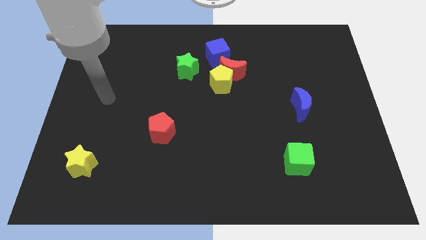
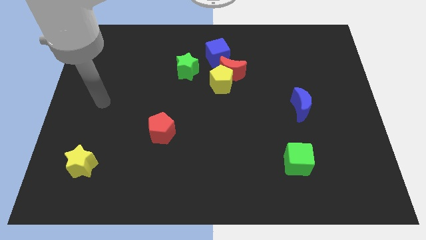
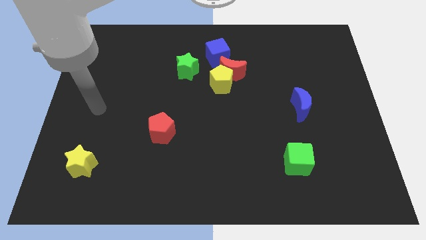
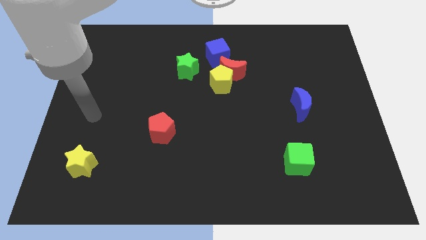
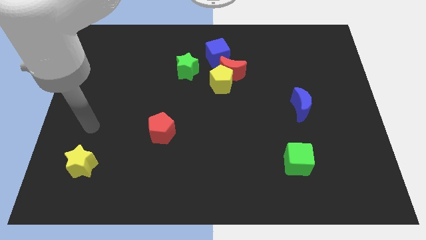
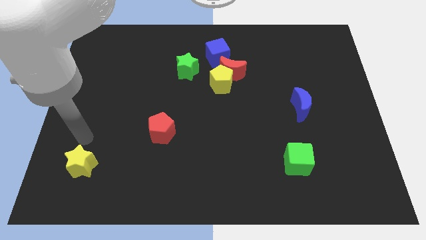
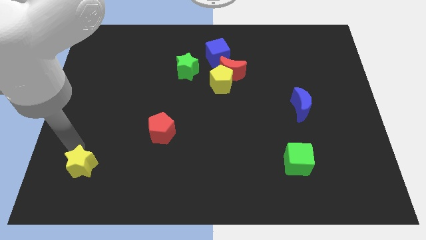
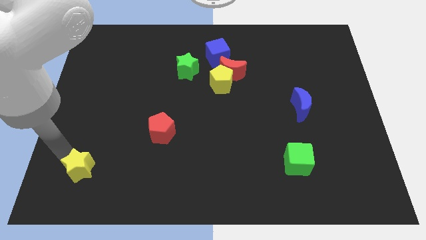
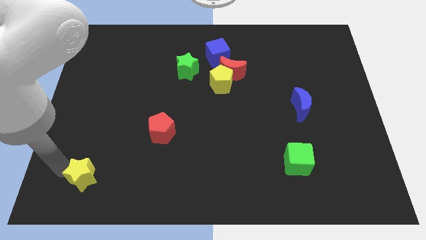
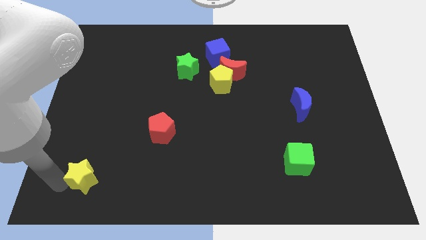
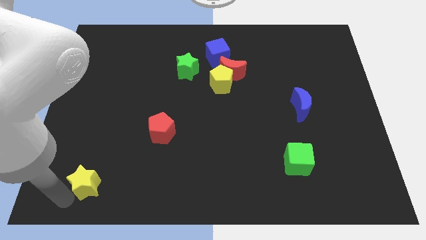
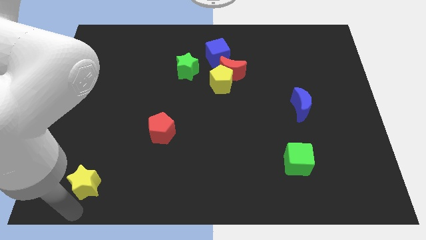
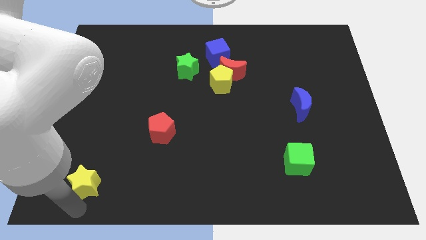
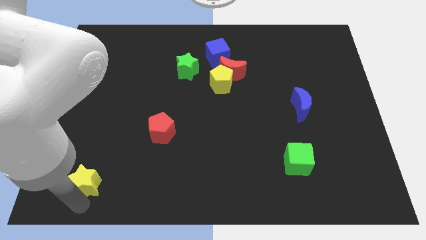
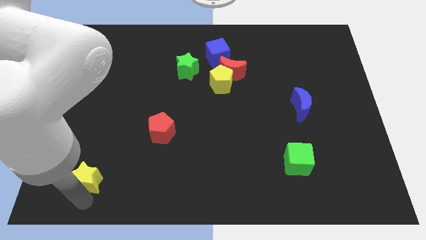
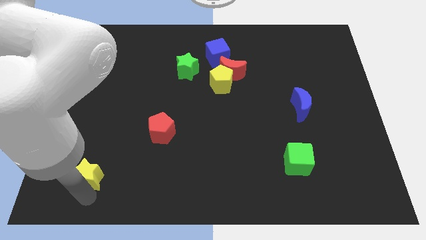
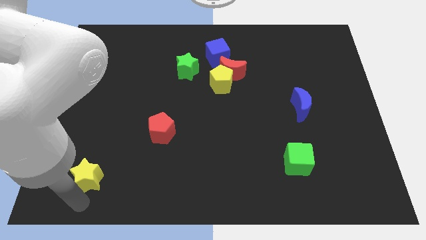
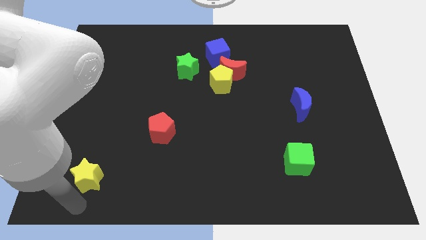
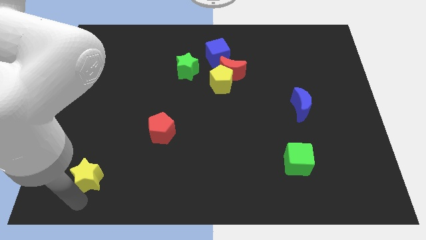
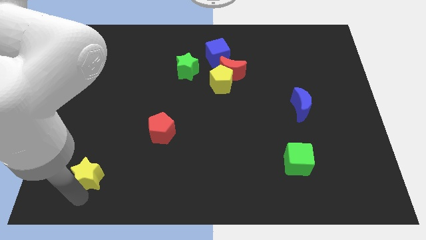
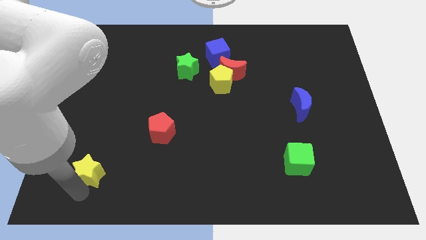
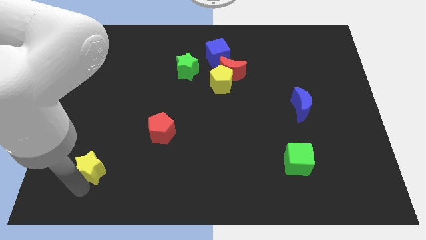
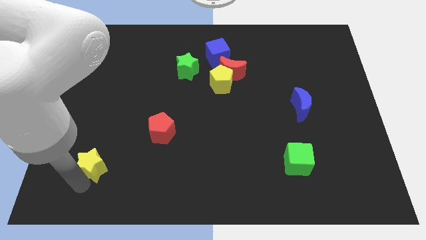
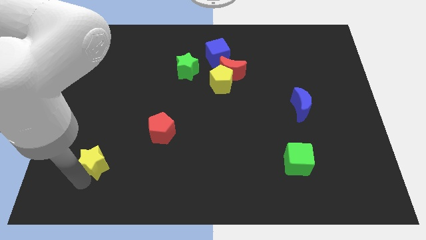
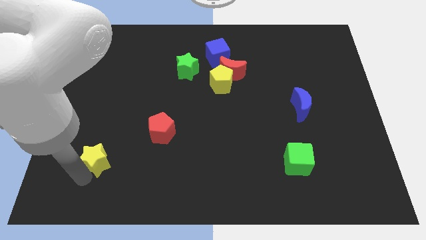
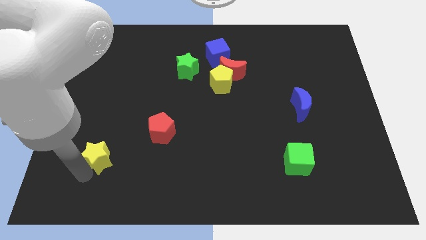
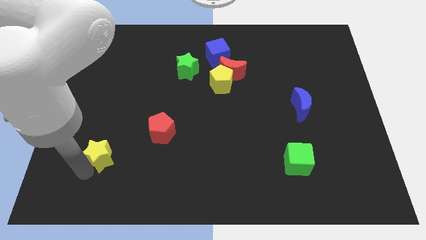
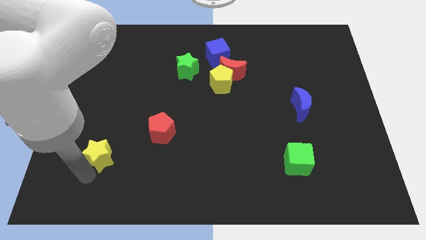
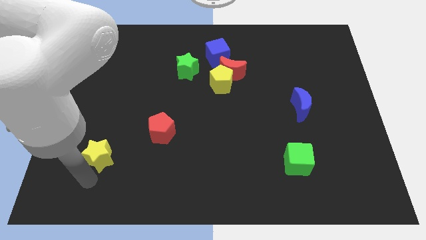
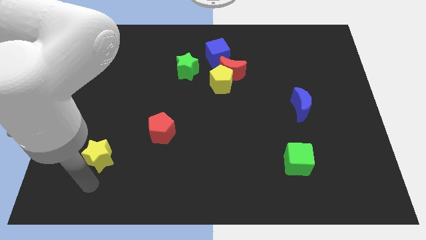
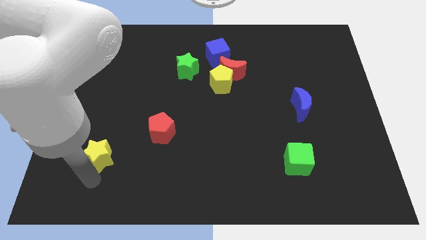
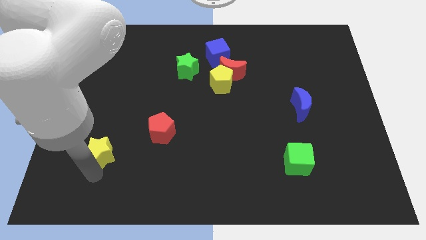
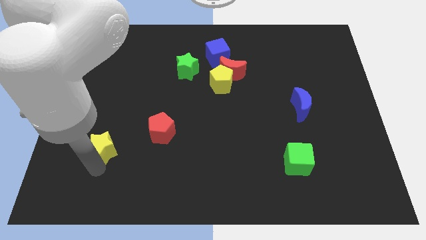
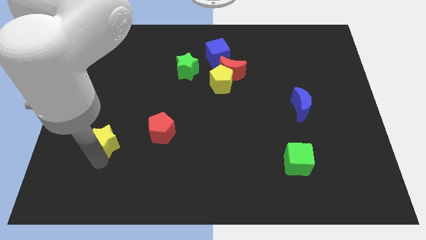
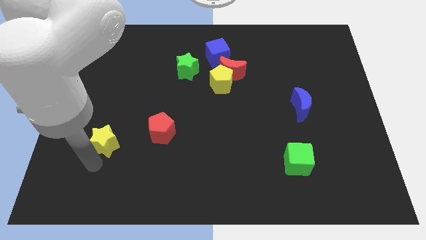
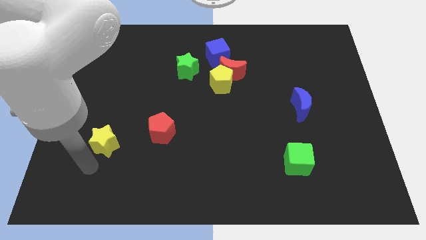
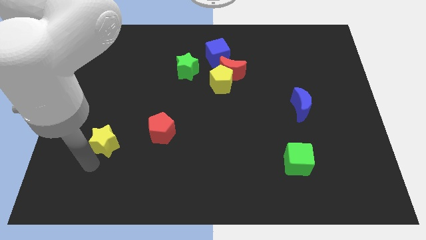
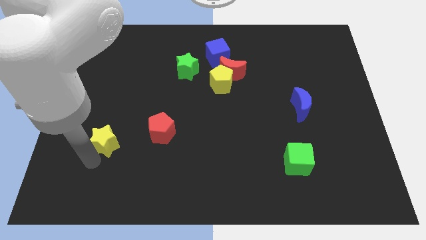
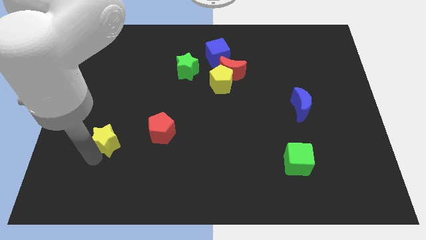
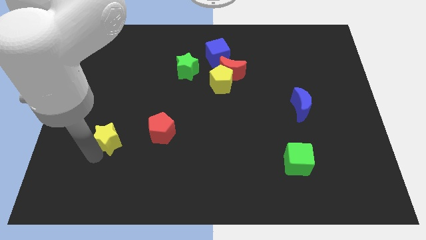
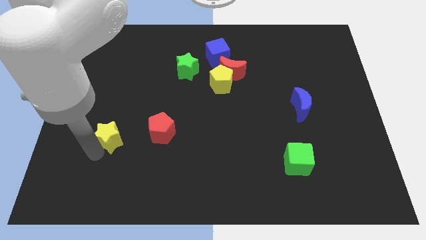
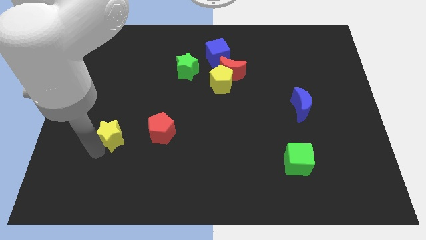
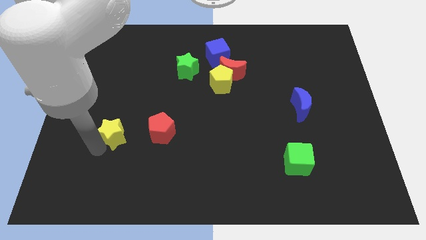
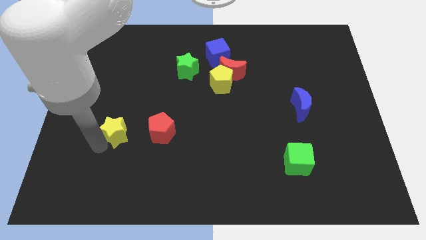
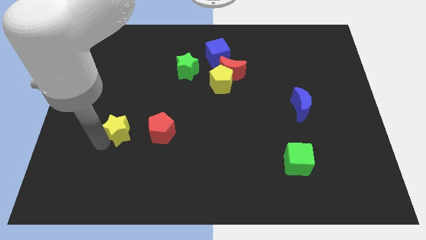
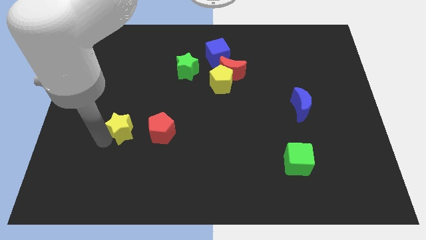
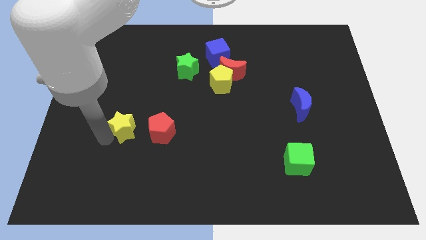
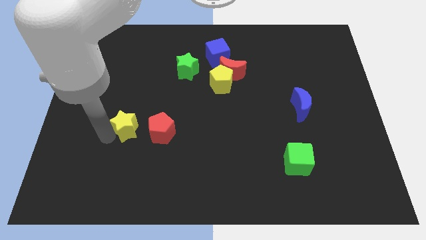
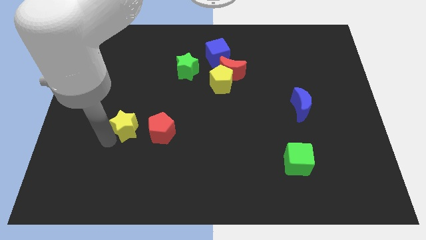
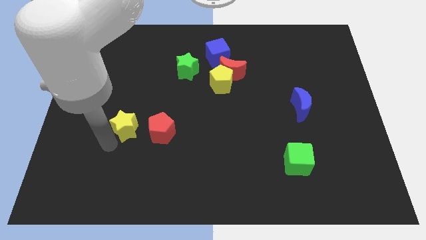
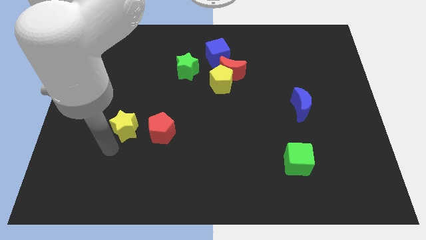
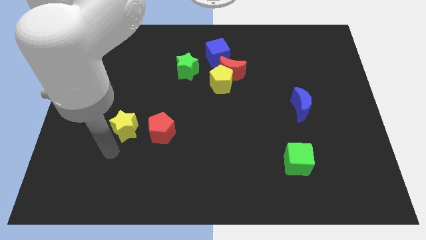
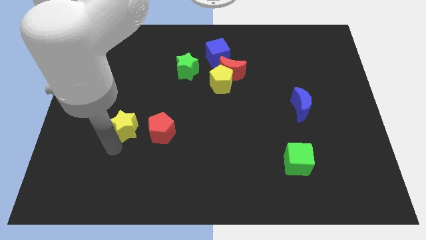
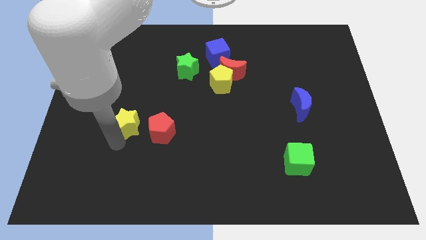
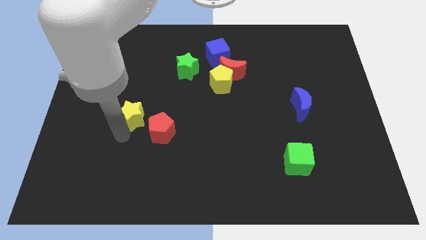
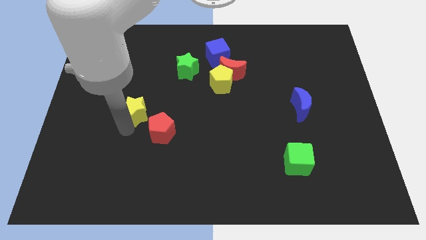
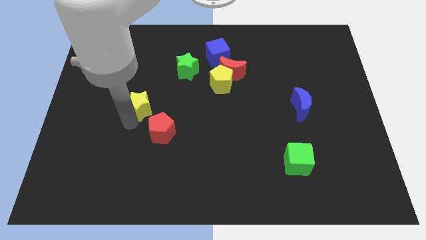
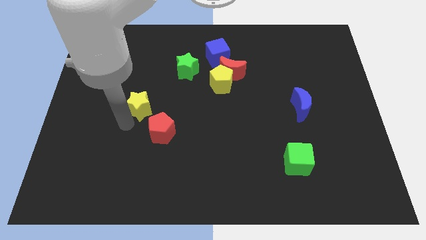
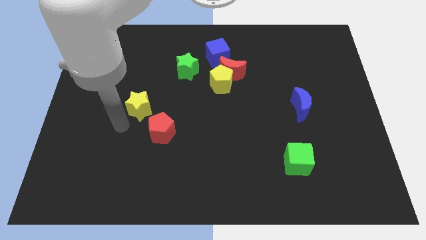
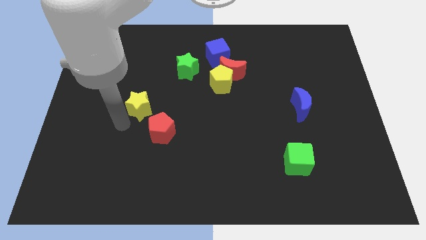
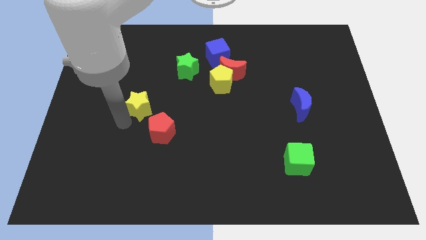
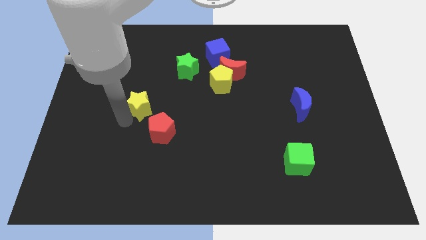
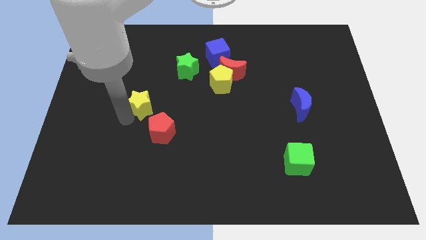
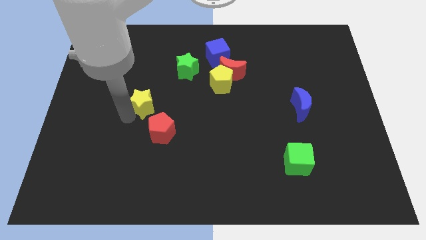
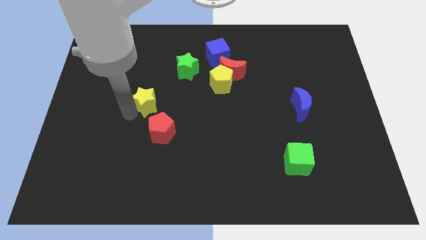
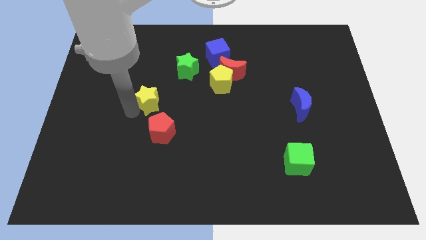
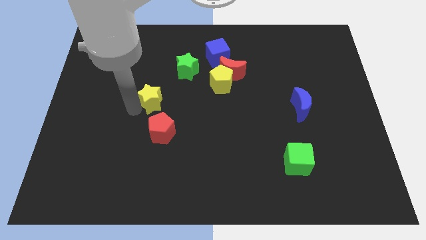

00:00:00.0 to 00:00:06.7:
slide the yellow star to the bottom left of the green star

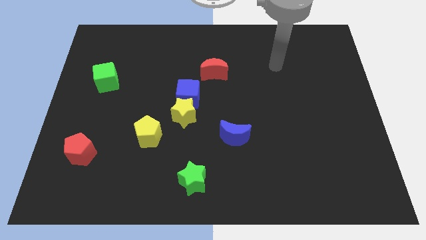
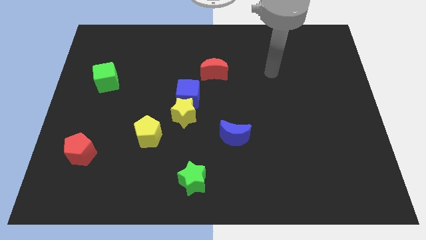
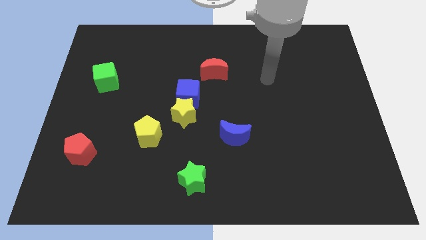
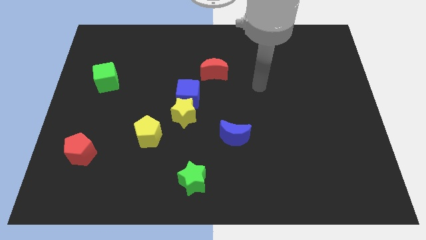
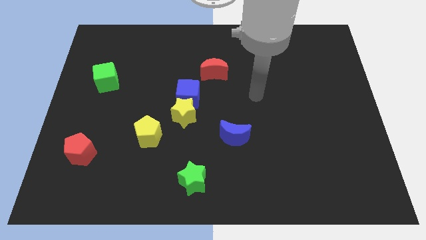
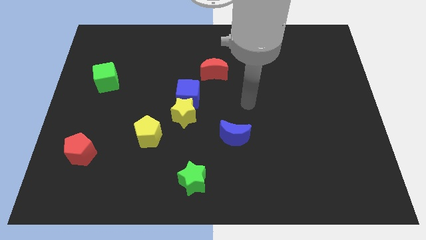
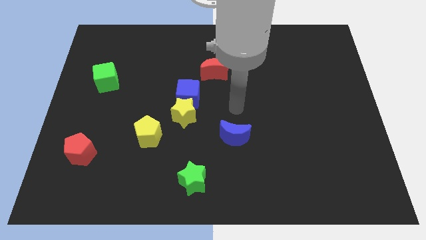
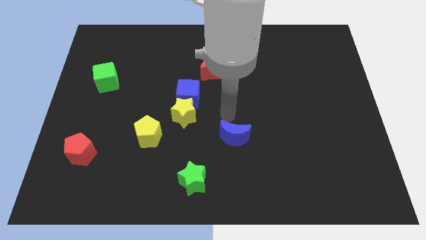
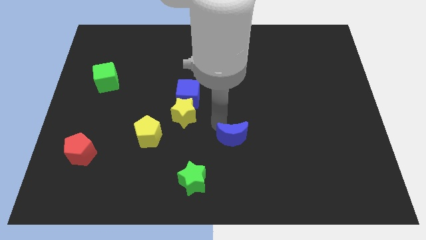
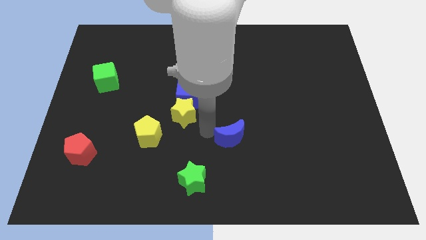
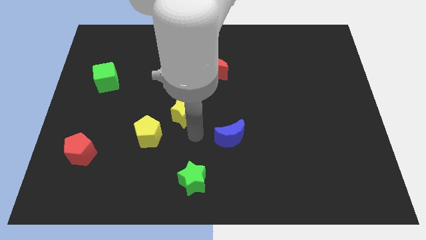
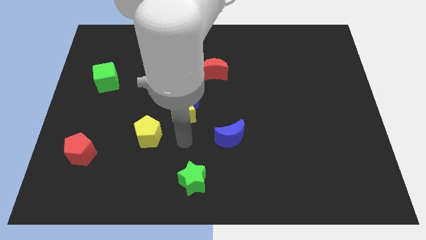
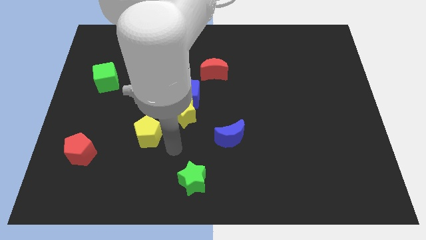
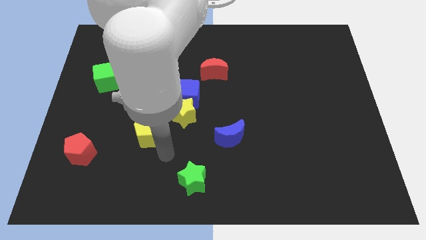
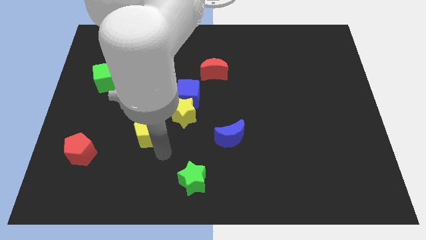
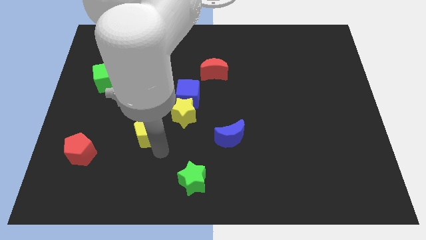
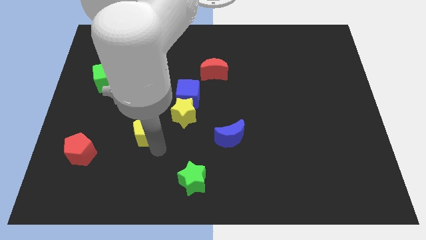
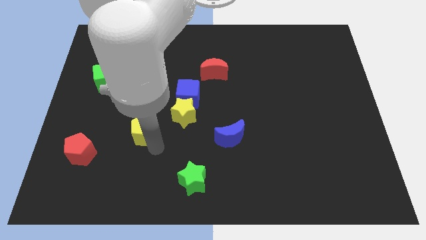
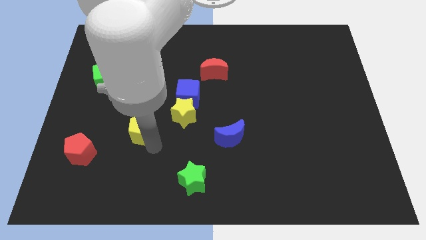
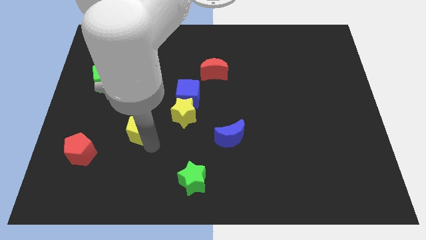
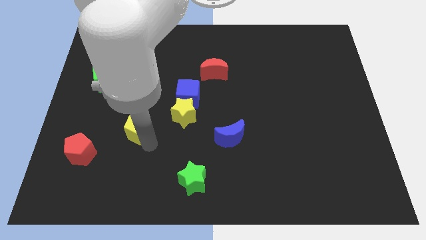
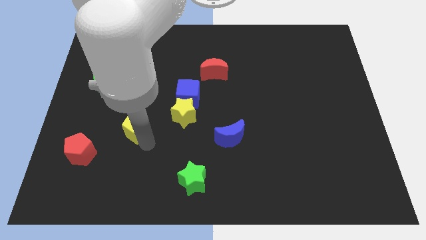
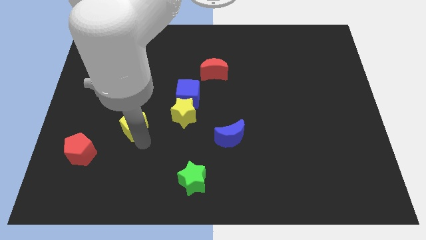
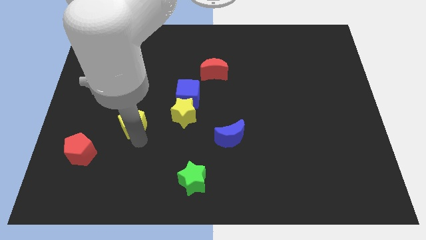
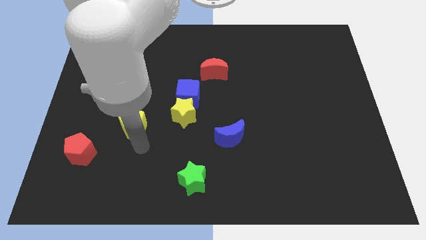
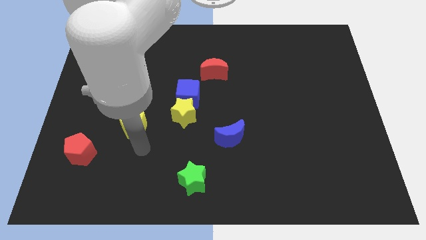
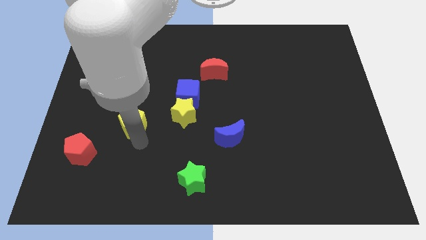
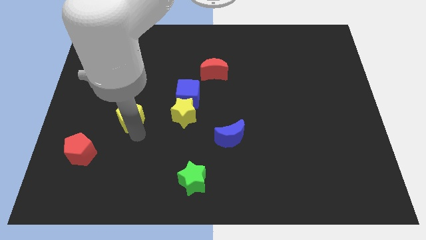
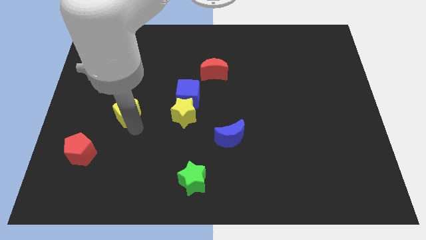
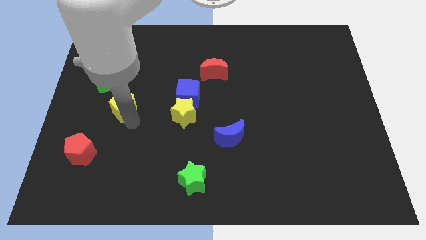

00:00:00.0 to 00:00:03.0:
move the yellow pentagon to the bottom right side of the green cube
